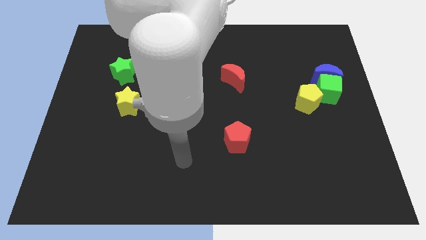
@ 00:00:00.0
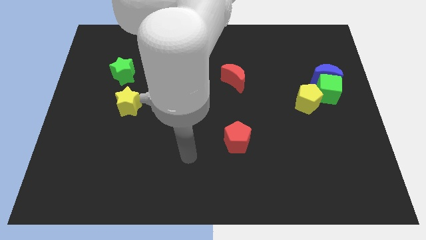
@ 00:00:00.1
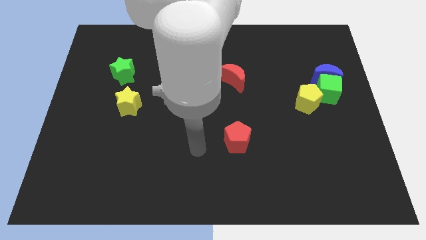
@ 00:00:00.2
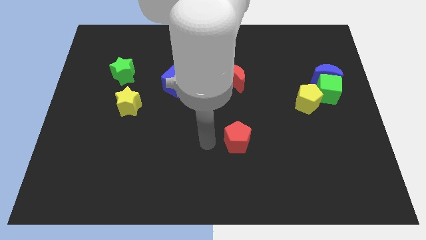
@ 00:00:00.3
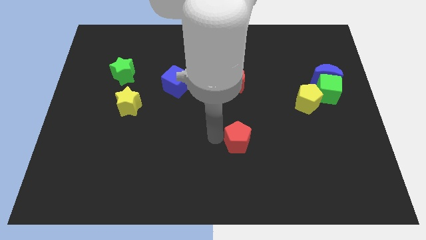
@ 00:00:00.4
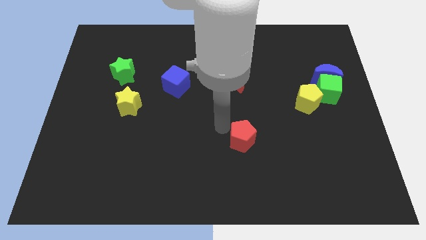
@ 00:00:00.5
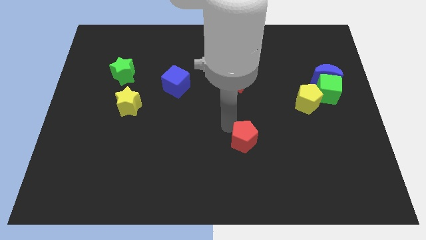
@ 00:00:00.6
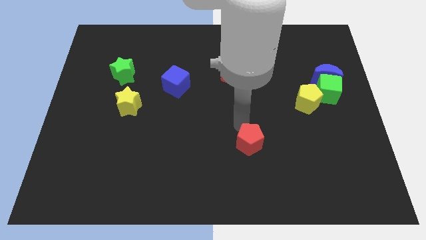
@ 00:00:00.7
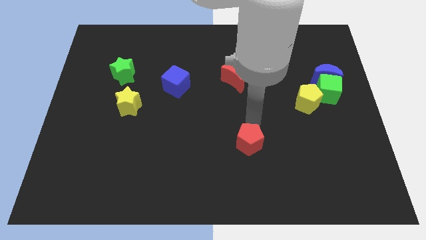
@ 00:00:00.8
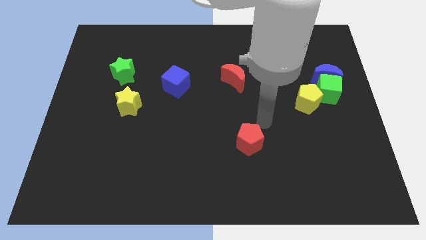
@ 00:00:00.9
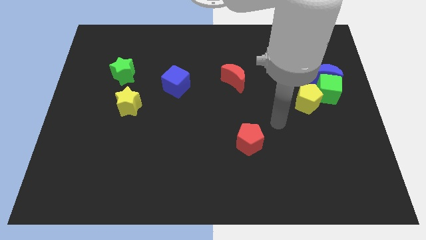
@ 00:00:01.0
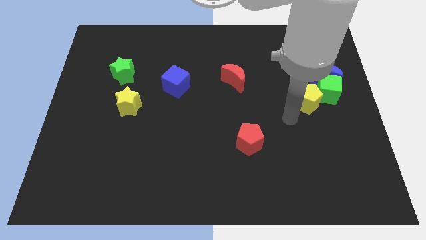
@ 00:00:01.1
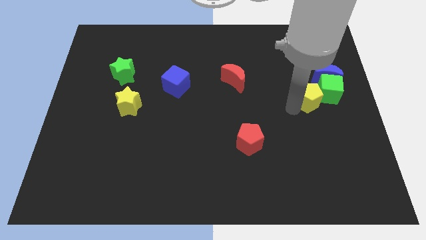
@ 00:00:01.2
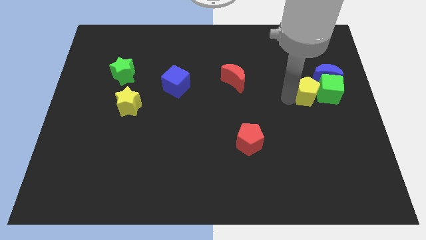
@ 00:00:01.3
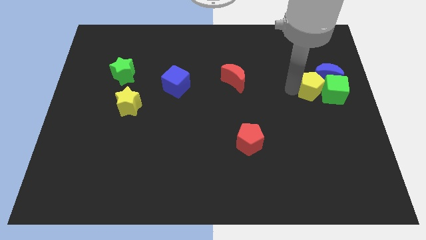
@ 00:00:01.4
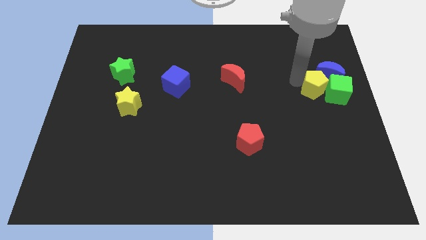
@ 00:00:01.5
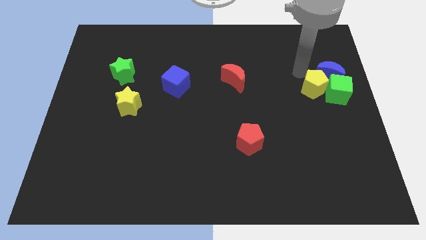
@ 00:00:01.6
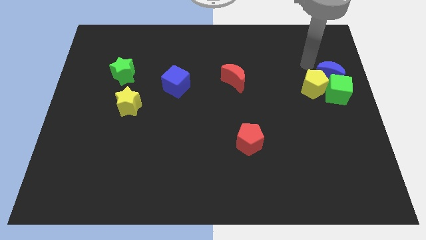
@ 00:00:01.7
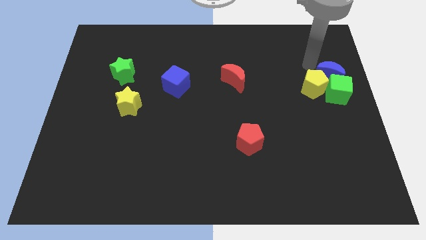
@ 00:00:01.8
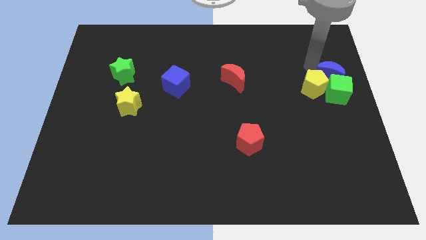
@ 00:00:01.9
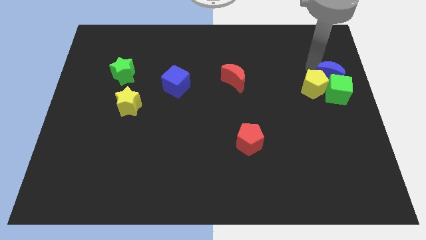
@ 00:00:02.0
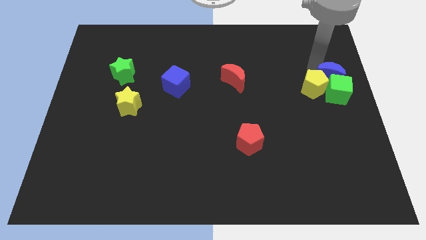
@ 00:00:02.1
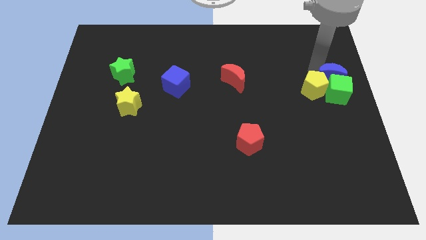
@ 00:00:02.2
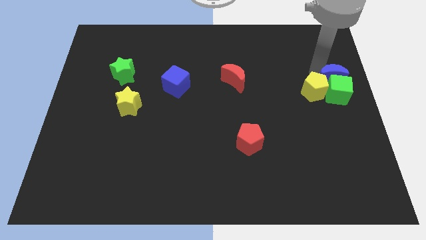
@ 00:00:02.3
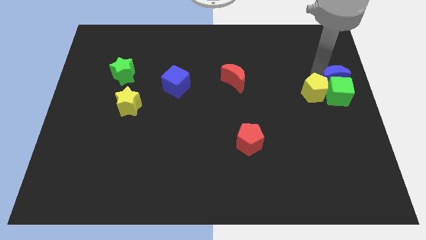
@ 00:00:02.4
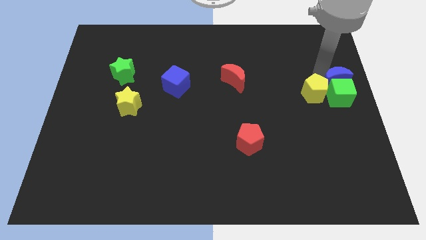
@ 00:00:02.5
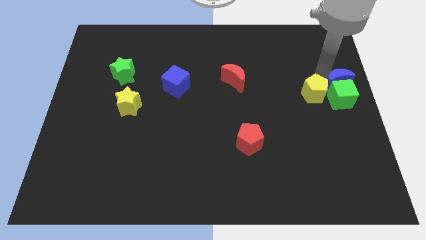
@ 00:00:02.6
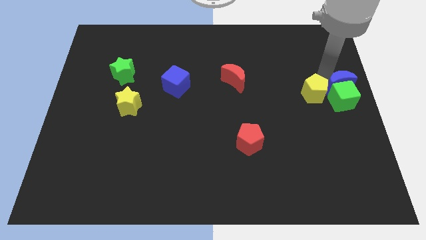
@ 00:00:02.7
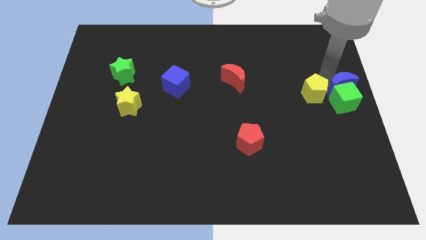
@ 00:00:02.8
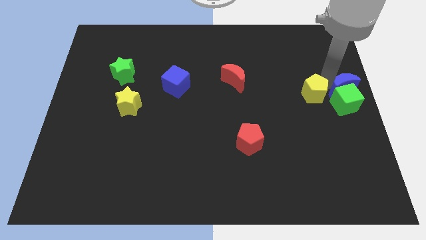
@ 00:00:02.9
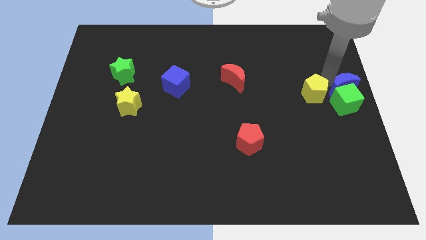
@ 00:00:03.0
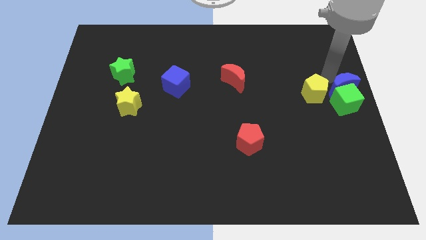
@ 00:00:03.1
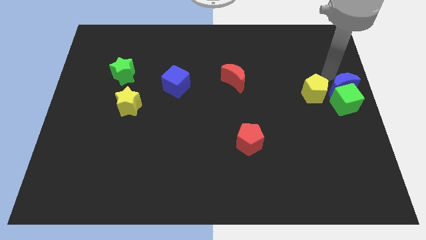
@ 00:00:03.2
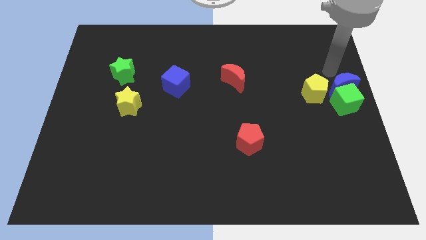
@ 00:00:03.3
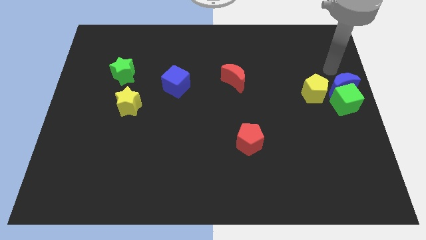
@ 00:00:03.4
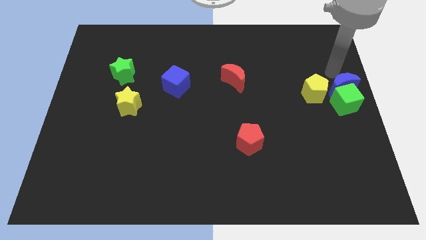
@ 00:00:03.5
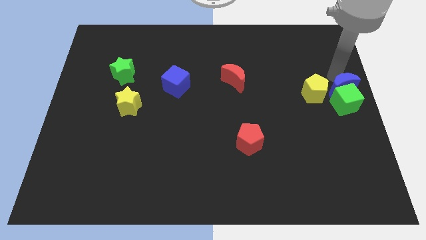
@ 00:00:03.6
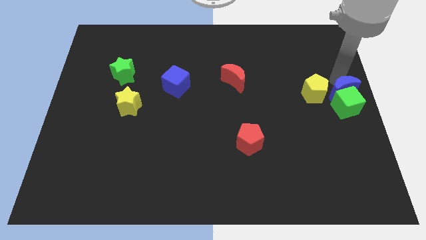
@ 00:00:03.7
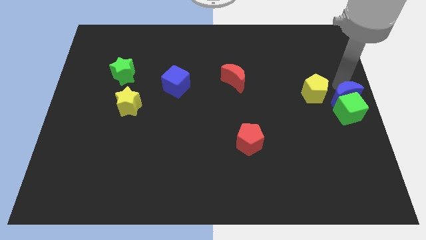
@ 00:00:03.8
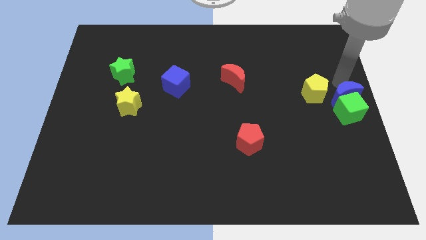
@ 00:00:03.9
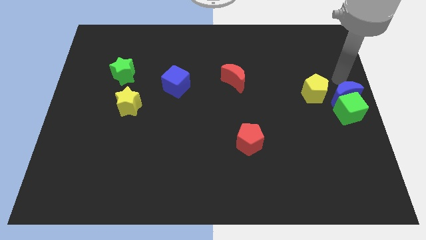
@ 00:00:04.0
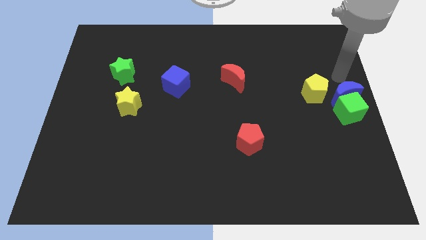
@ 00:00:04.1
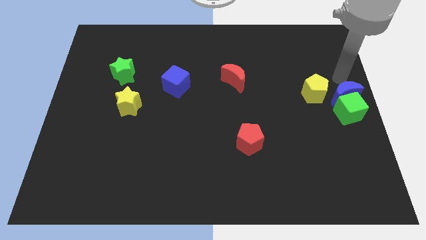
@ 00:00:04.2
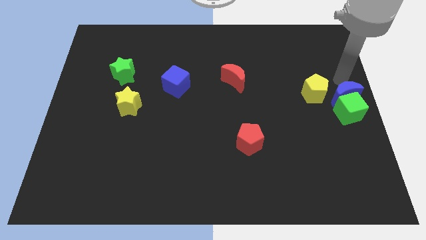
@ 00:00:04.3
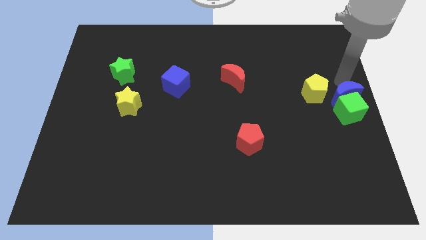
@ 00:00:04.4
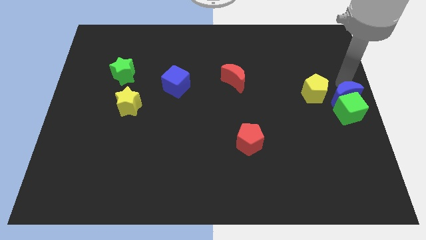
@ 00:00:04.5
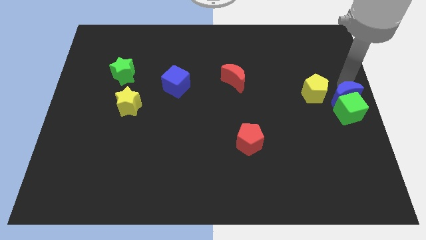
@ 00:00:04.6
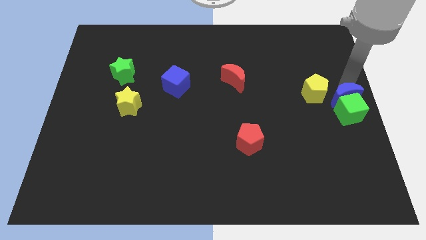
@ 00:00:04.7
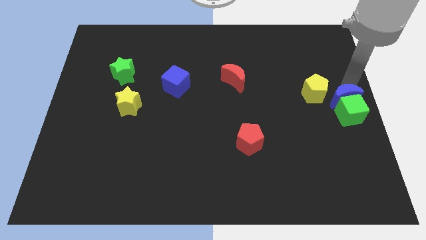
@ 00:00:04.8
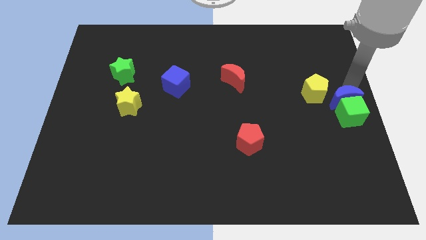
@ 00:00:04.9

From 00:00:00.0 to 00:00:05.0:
slightly slide the blue moon down

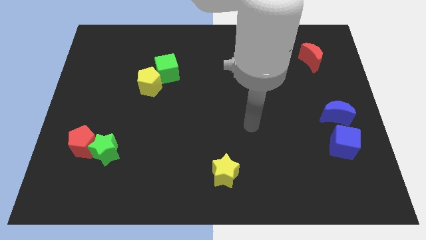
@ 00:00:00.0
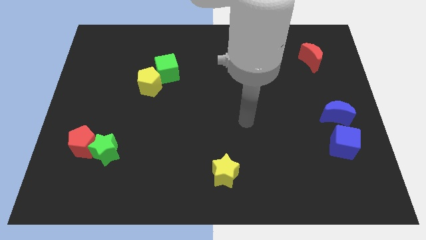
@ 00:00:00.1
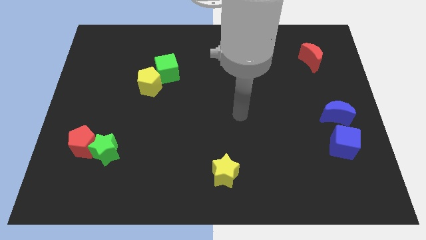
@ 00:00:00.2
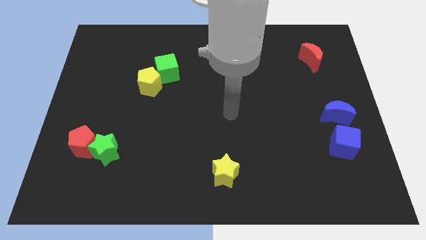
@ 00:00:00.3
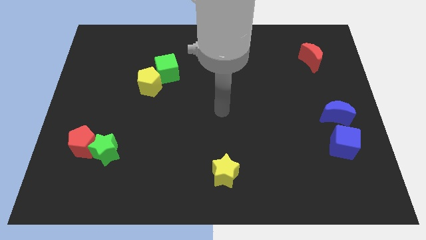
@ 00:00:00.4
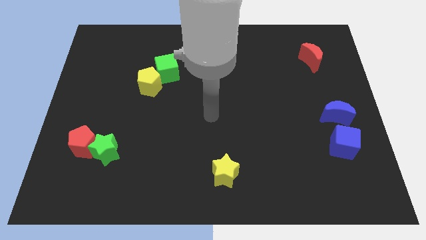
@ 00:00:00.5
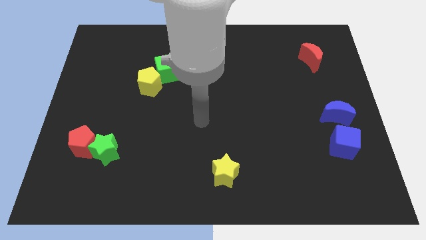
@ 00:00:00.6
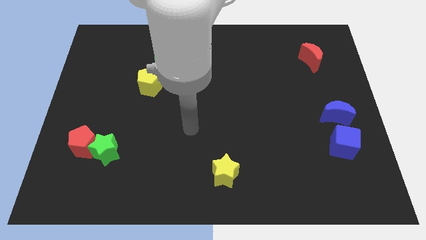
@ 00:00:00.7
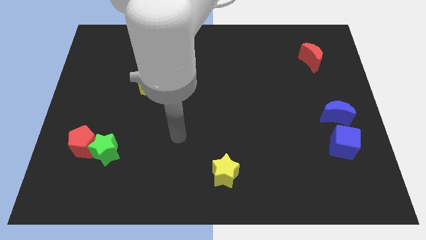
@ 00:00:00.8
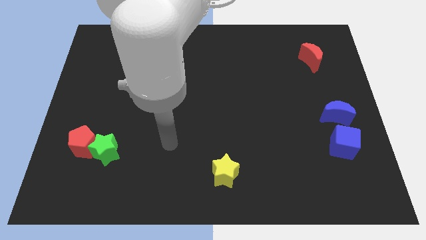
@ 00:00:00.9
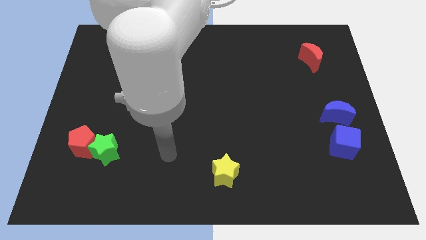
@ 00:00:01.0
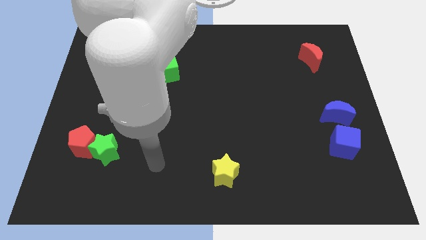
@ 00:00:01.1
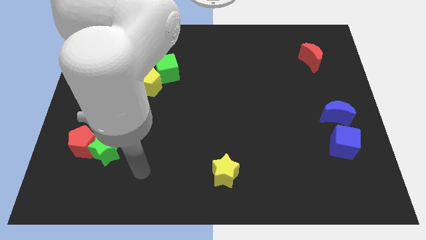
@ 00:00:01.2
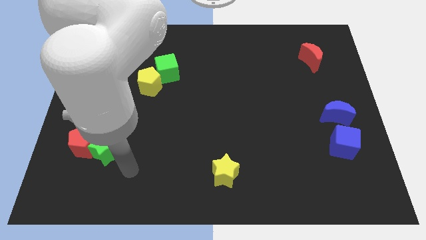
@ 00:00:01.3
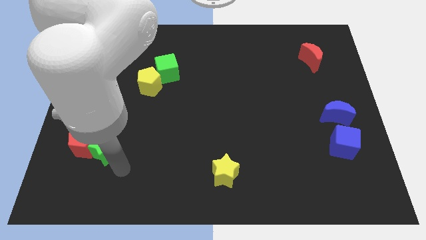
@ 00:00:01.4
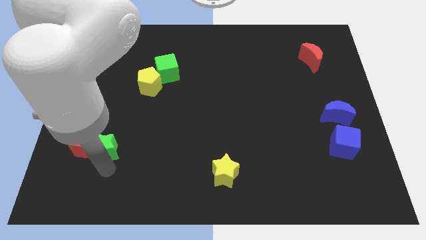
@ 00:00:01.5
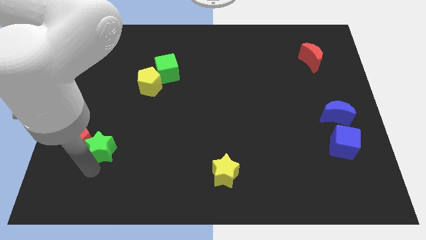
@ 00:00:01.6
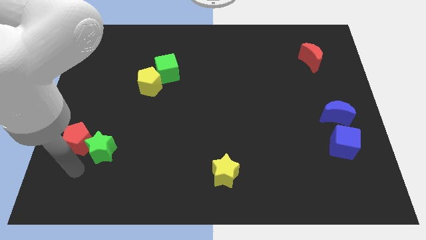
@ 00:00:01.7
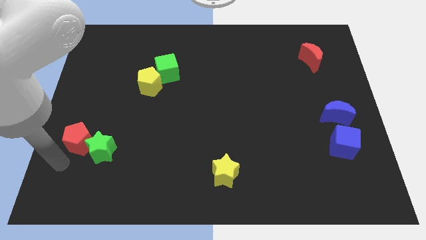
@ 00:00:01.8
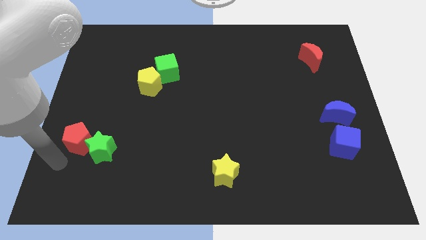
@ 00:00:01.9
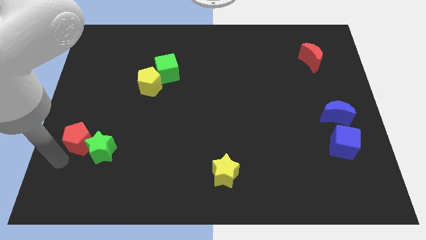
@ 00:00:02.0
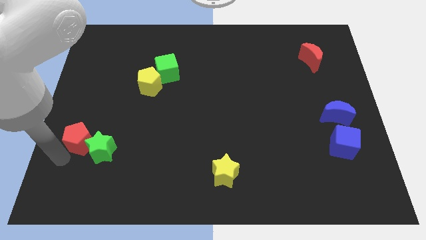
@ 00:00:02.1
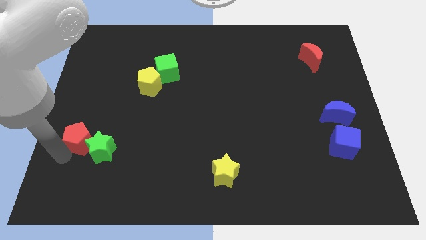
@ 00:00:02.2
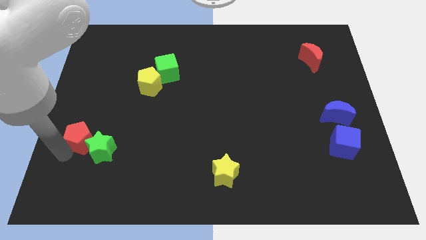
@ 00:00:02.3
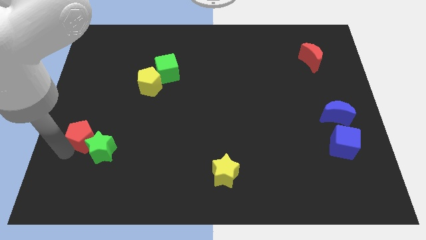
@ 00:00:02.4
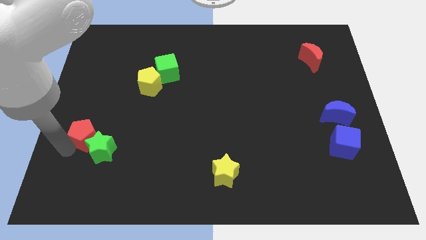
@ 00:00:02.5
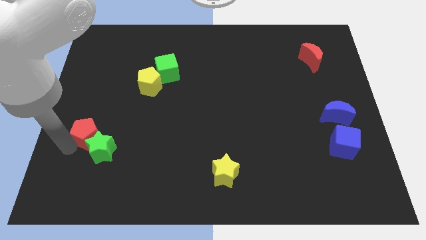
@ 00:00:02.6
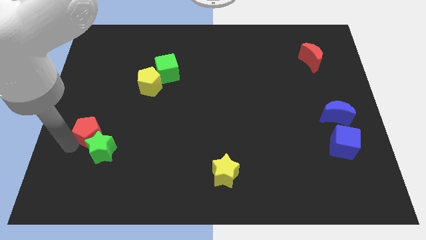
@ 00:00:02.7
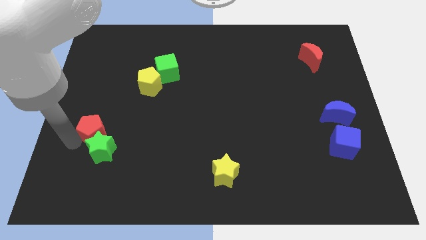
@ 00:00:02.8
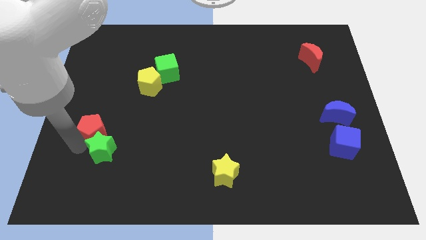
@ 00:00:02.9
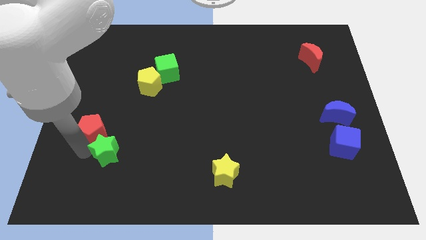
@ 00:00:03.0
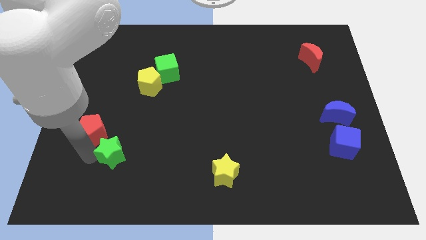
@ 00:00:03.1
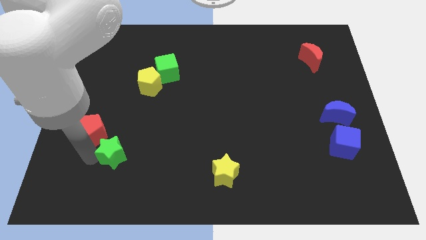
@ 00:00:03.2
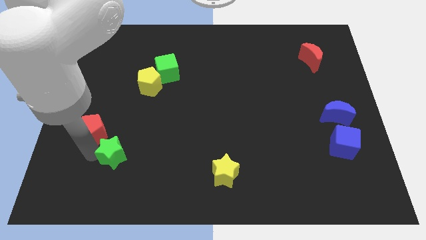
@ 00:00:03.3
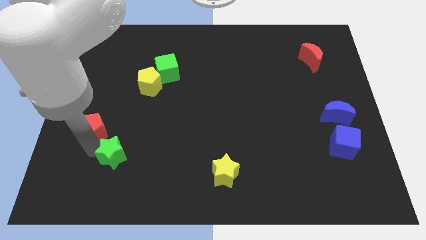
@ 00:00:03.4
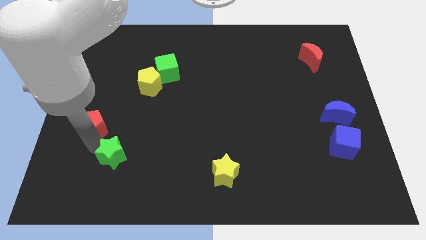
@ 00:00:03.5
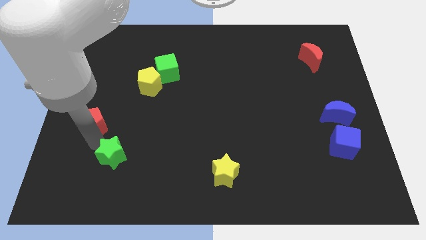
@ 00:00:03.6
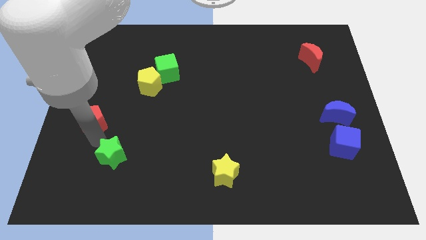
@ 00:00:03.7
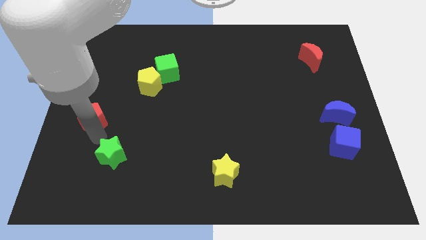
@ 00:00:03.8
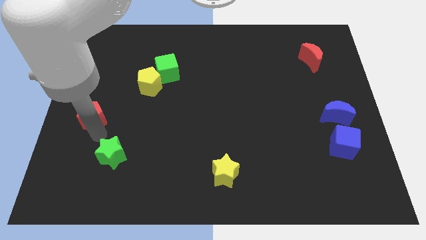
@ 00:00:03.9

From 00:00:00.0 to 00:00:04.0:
slightly move the red pentagon upwards
